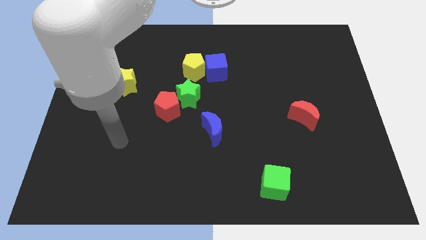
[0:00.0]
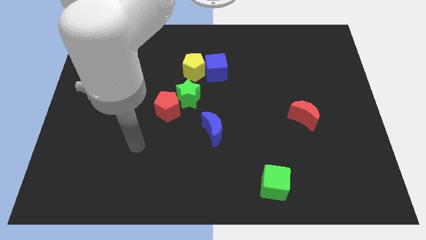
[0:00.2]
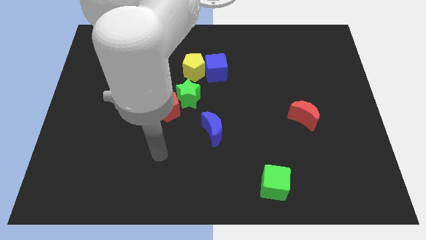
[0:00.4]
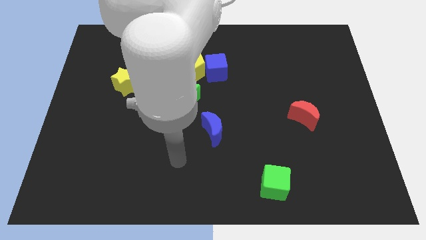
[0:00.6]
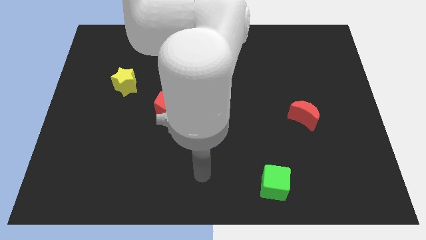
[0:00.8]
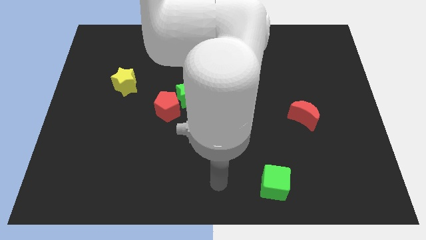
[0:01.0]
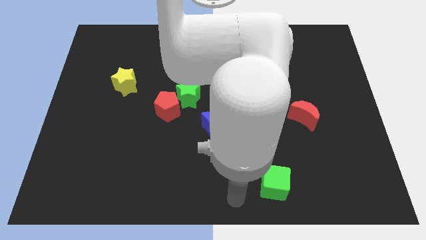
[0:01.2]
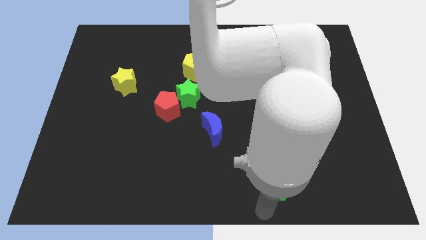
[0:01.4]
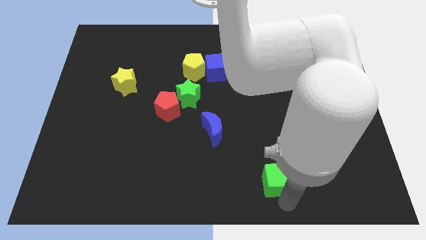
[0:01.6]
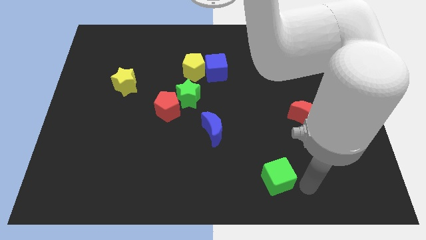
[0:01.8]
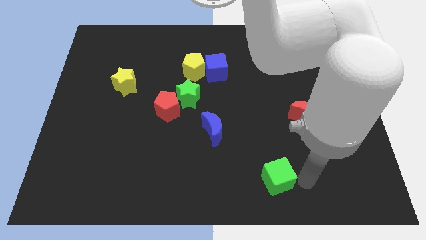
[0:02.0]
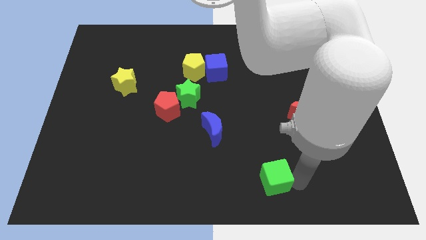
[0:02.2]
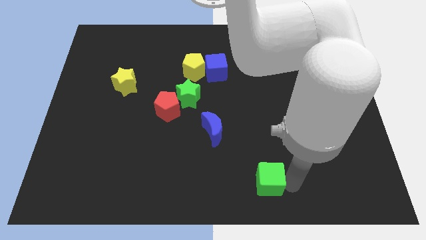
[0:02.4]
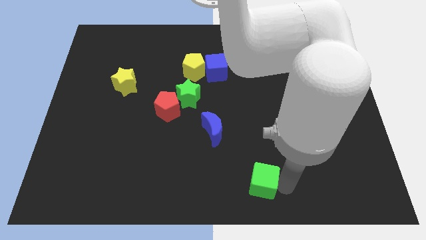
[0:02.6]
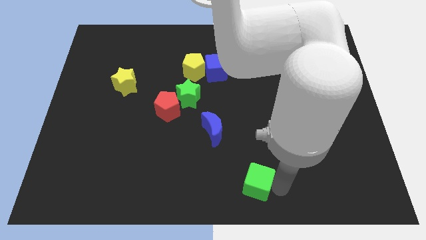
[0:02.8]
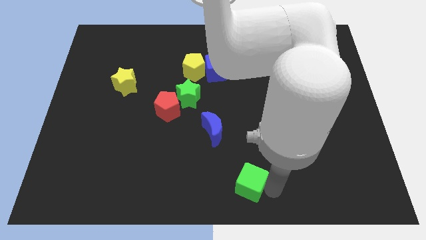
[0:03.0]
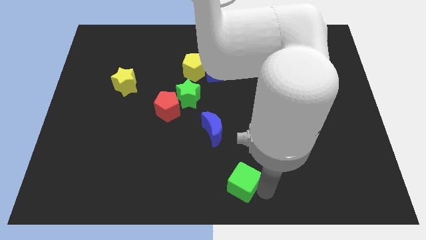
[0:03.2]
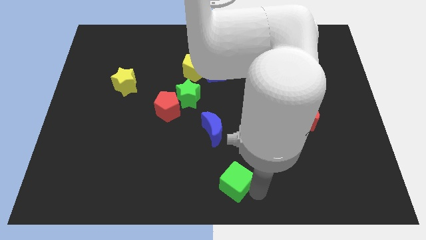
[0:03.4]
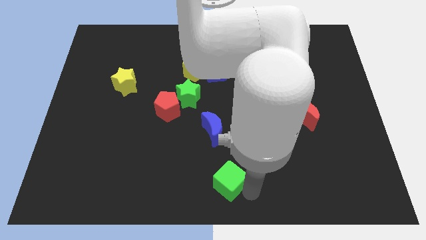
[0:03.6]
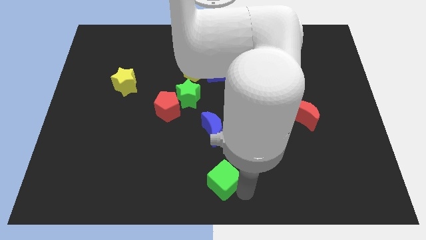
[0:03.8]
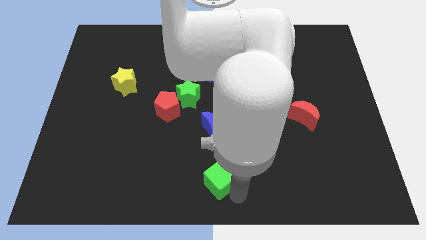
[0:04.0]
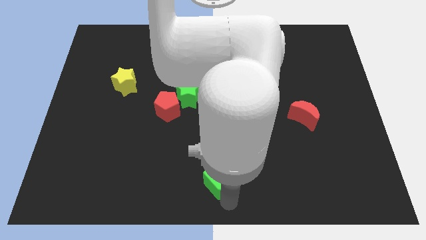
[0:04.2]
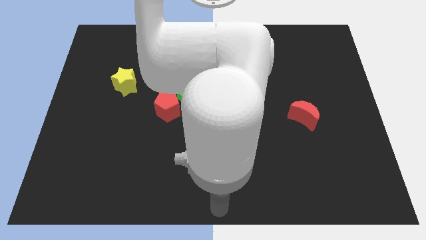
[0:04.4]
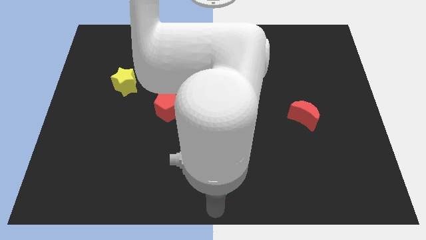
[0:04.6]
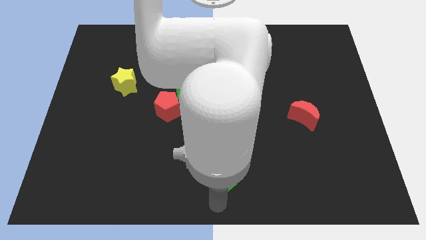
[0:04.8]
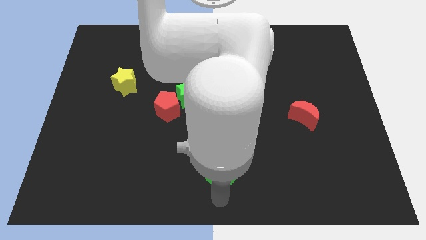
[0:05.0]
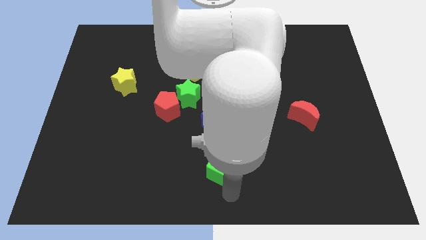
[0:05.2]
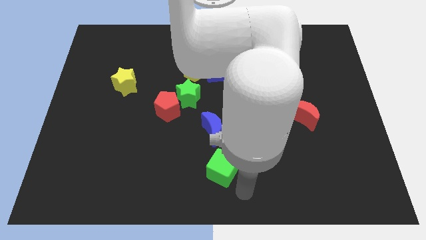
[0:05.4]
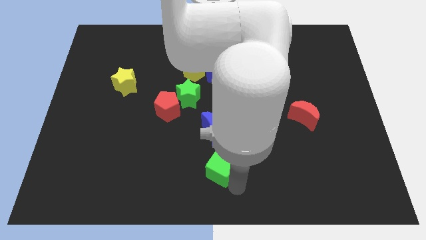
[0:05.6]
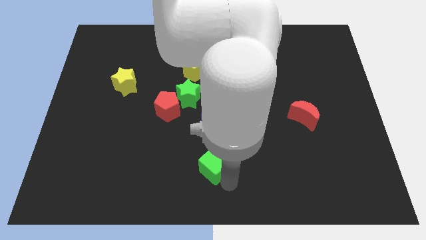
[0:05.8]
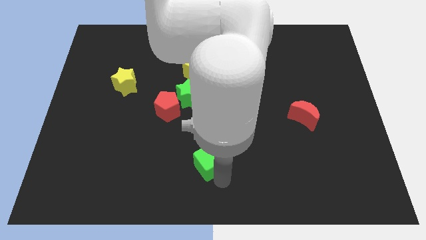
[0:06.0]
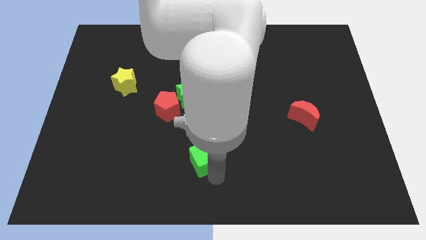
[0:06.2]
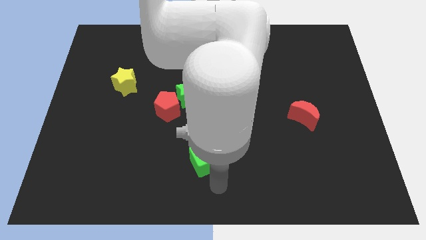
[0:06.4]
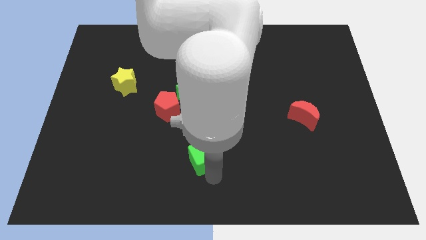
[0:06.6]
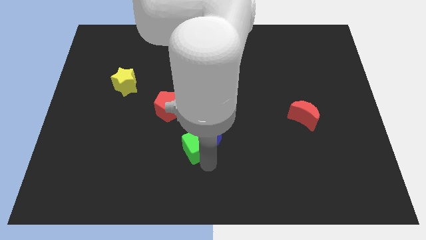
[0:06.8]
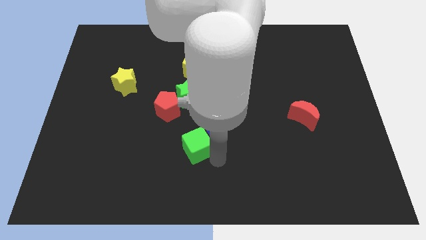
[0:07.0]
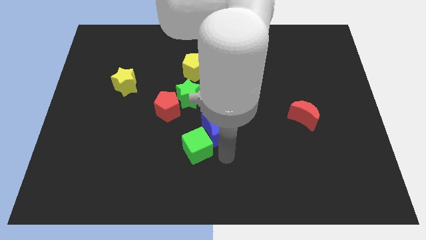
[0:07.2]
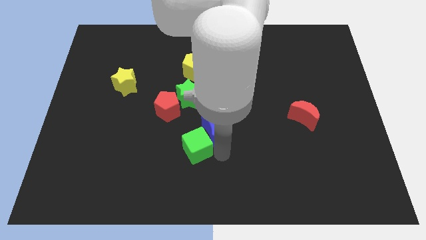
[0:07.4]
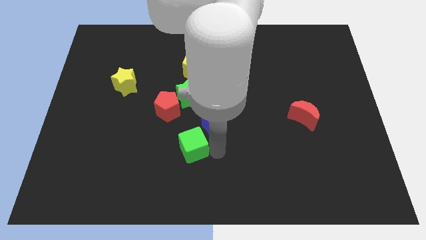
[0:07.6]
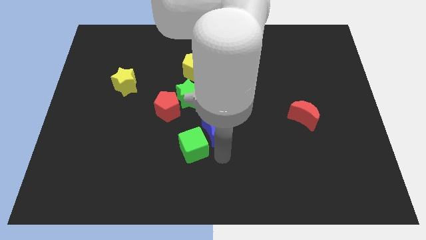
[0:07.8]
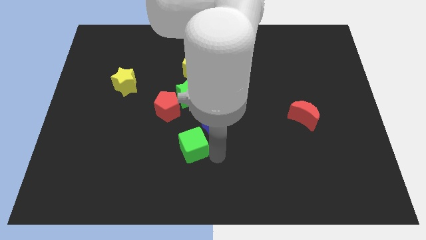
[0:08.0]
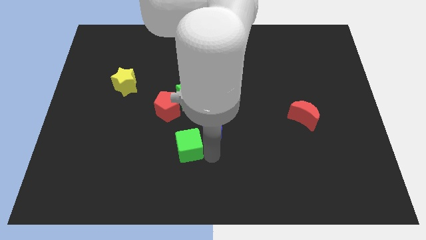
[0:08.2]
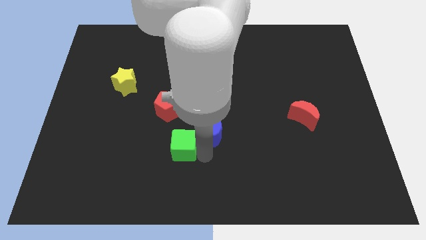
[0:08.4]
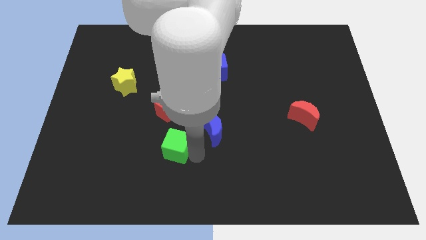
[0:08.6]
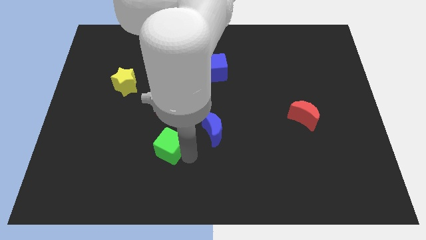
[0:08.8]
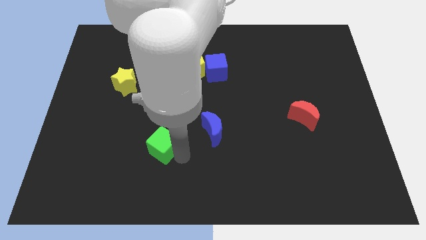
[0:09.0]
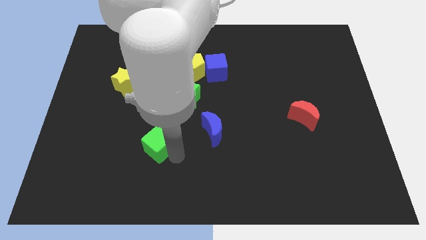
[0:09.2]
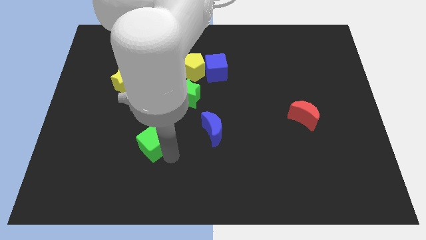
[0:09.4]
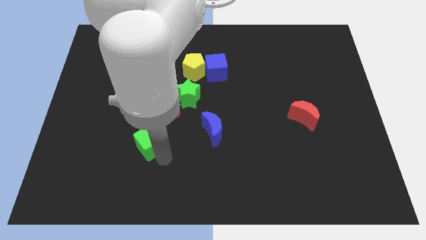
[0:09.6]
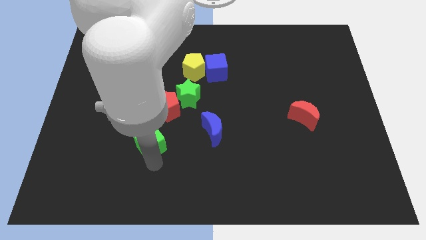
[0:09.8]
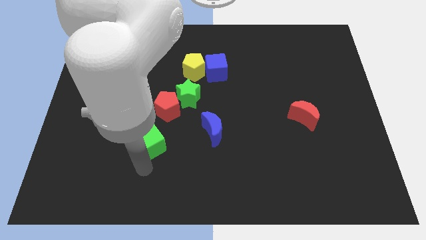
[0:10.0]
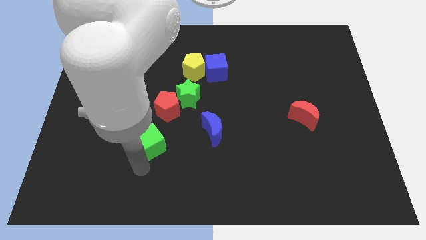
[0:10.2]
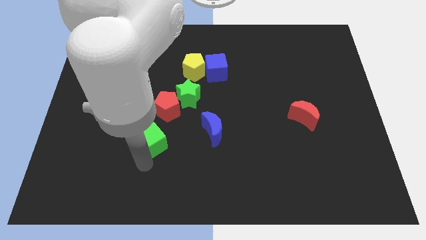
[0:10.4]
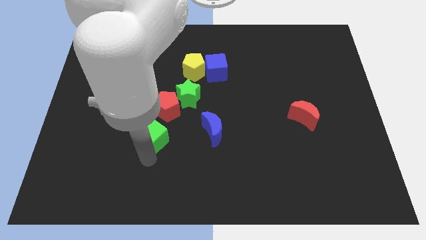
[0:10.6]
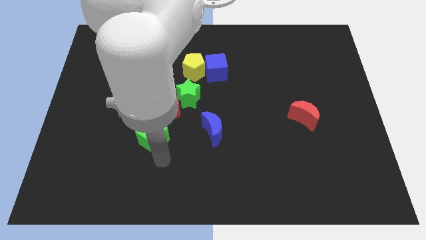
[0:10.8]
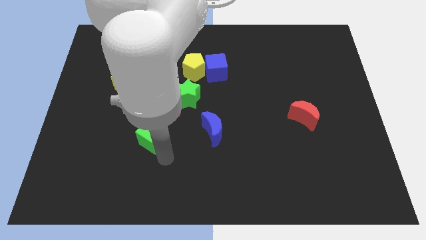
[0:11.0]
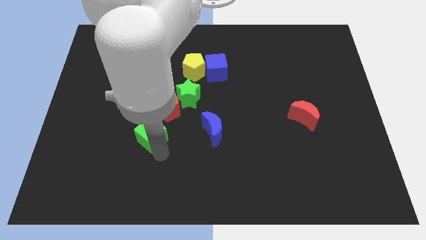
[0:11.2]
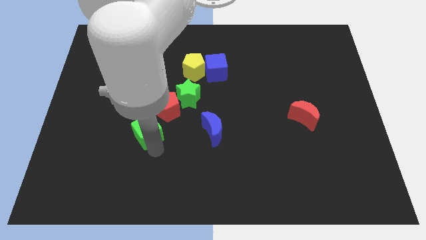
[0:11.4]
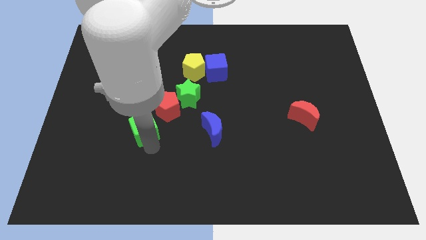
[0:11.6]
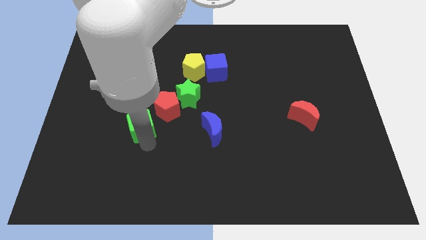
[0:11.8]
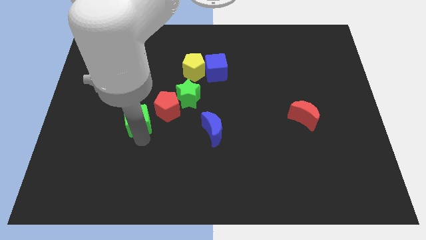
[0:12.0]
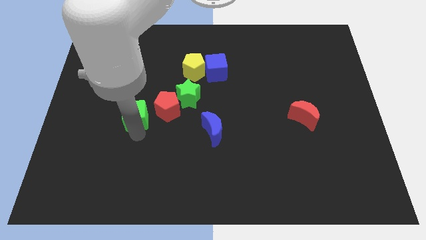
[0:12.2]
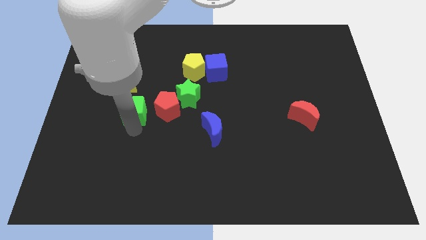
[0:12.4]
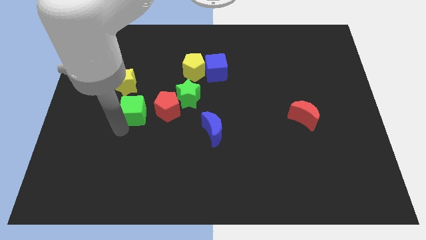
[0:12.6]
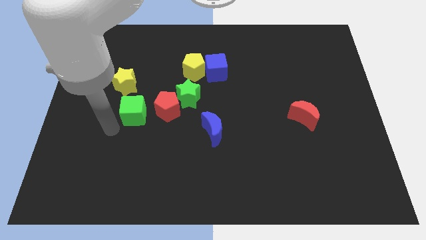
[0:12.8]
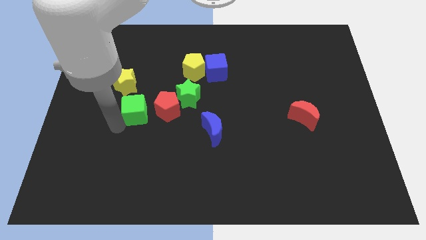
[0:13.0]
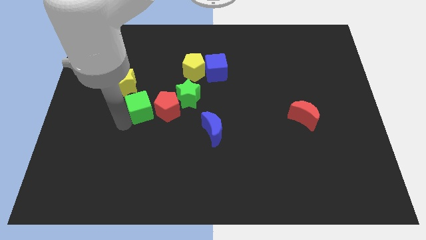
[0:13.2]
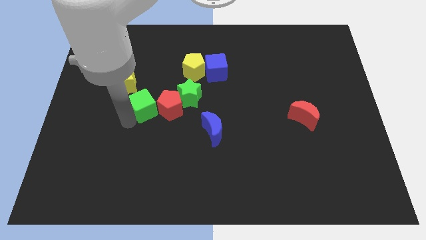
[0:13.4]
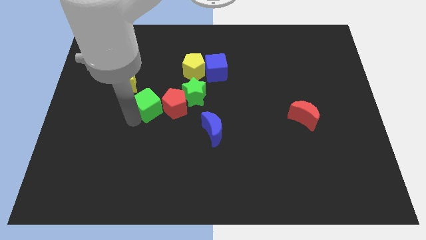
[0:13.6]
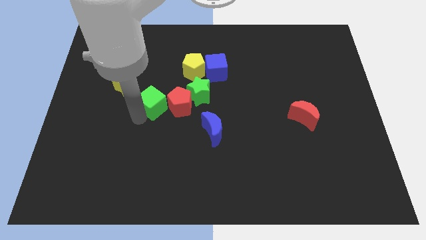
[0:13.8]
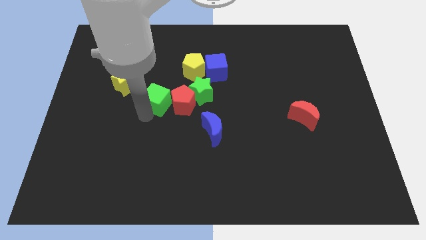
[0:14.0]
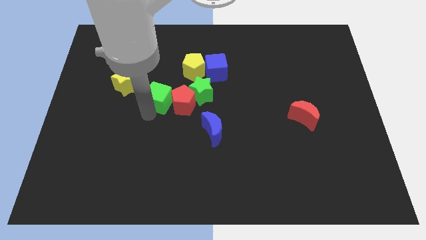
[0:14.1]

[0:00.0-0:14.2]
move the green cube to the right of the yellow star

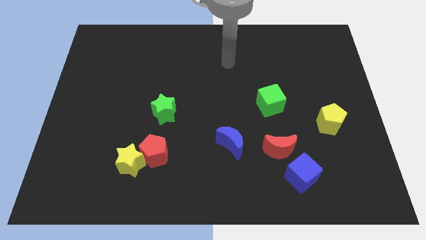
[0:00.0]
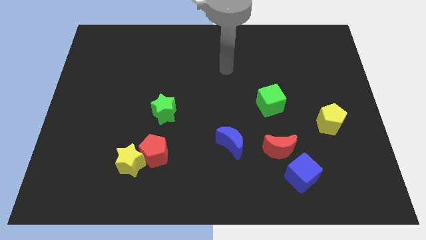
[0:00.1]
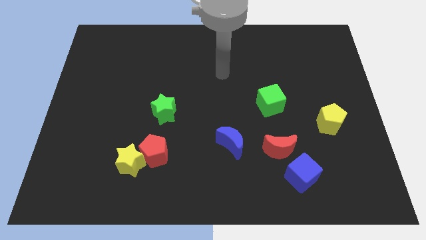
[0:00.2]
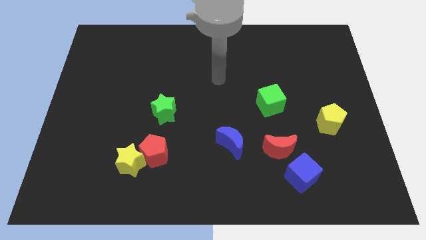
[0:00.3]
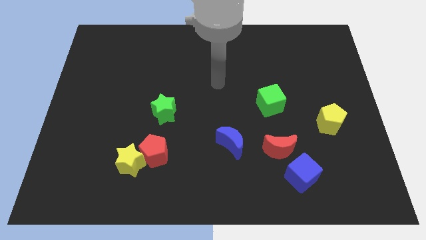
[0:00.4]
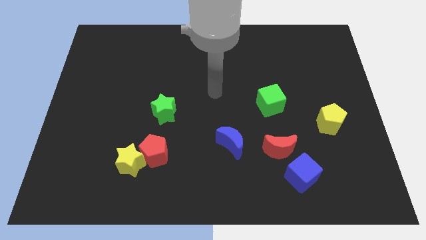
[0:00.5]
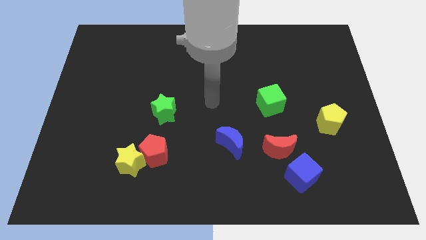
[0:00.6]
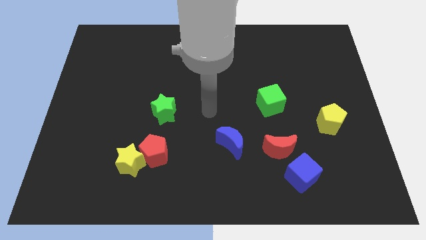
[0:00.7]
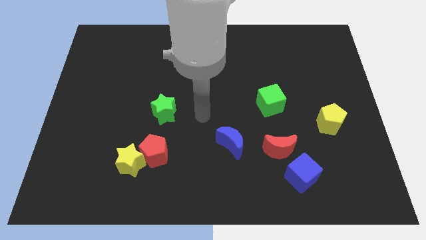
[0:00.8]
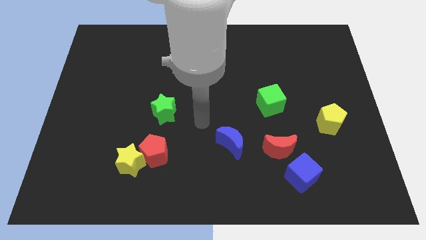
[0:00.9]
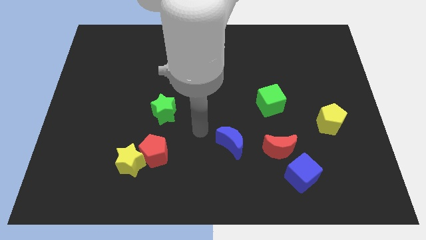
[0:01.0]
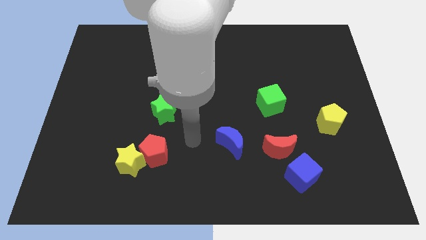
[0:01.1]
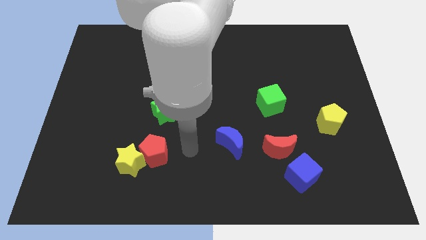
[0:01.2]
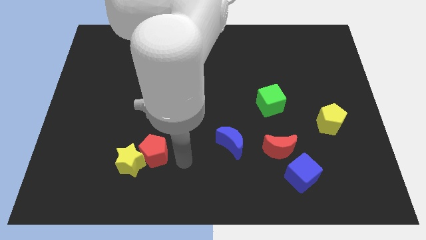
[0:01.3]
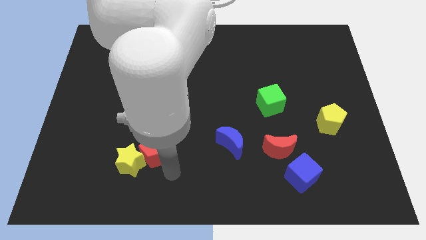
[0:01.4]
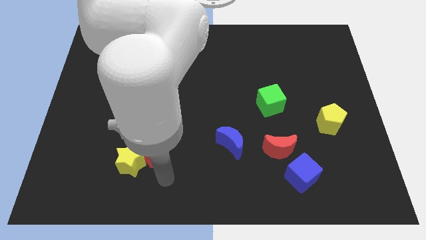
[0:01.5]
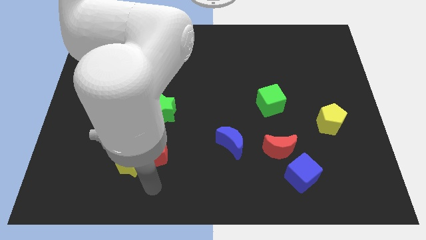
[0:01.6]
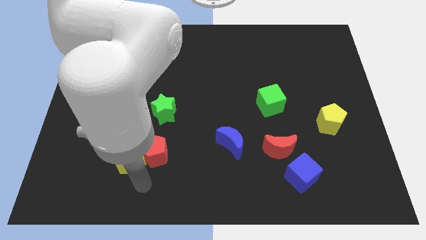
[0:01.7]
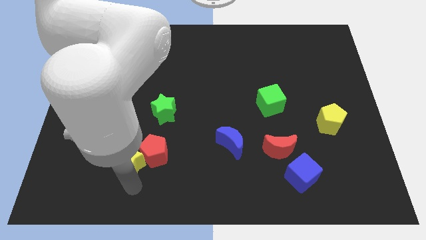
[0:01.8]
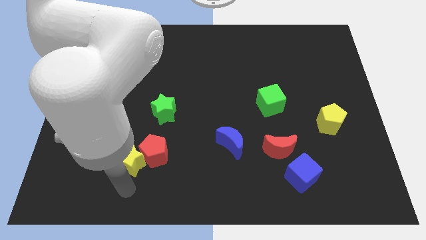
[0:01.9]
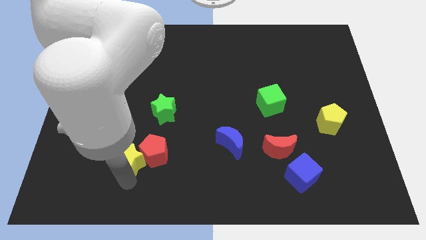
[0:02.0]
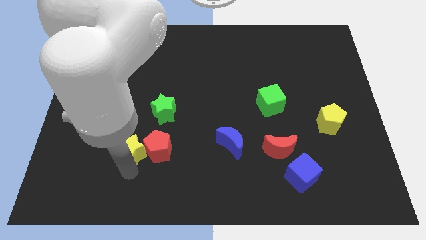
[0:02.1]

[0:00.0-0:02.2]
move the yellow star diagonally down and to the left of the green star
